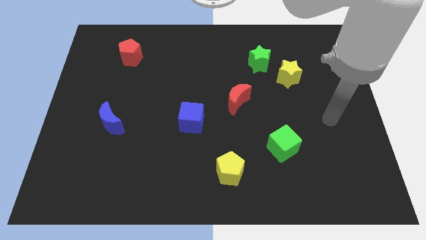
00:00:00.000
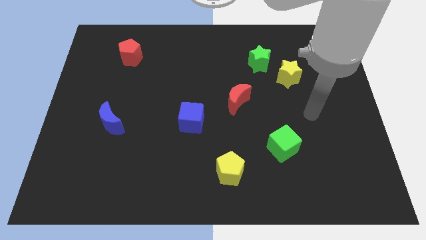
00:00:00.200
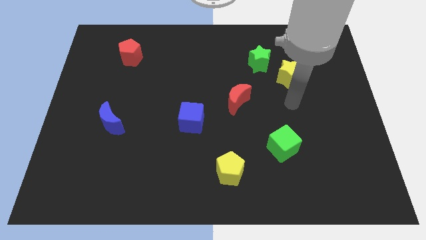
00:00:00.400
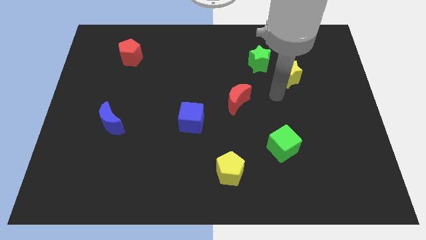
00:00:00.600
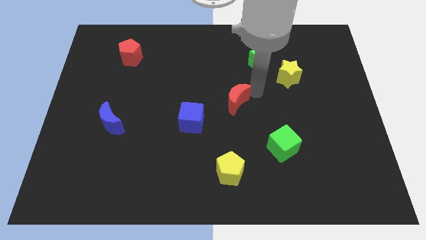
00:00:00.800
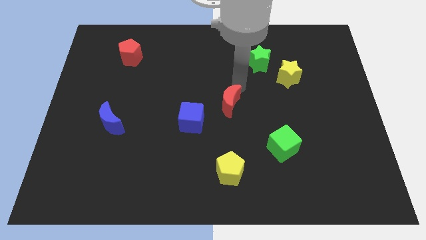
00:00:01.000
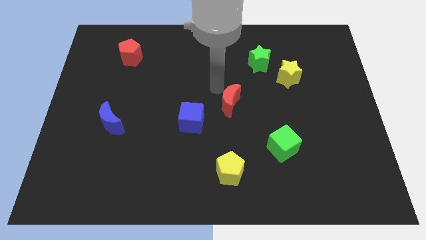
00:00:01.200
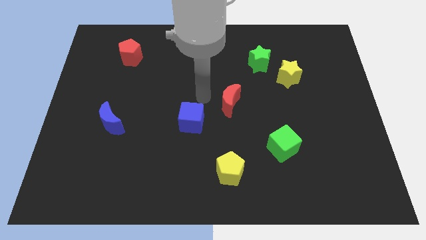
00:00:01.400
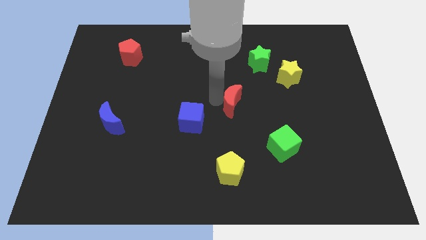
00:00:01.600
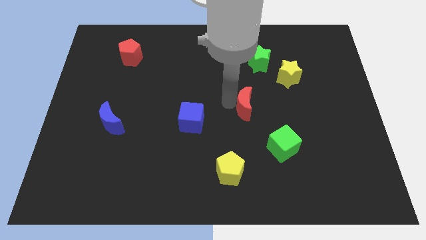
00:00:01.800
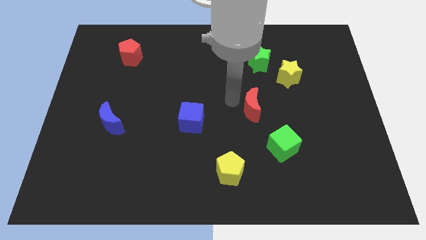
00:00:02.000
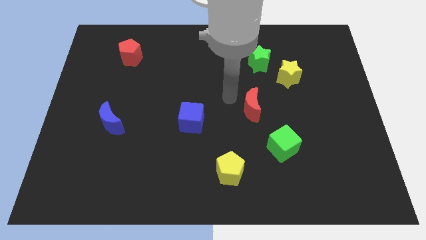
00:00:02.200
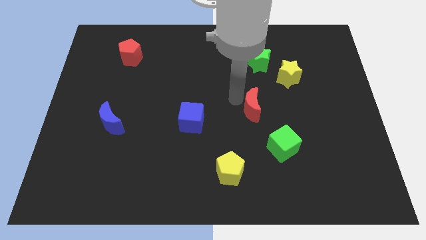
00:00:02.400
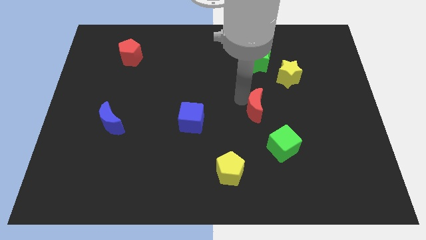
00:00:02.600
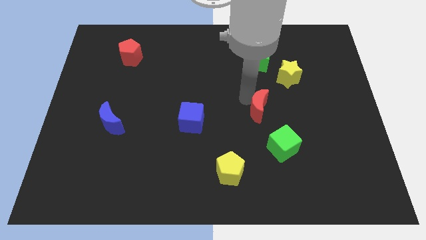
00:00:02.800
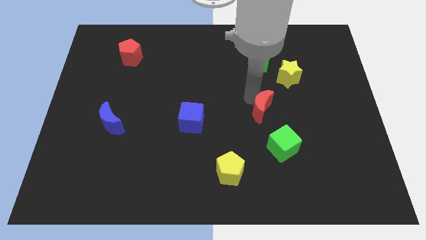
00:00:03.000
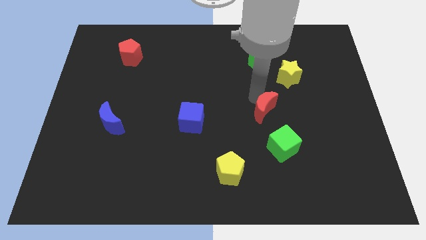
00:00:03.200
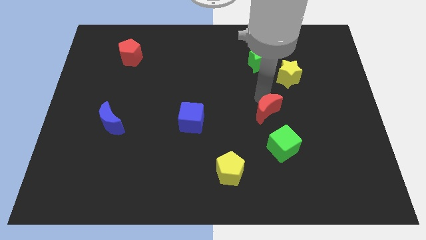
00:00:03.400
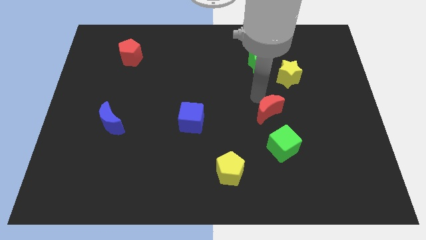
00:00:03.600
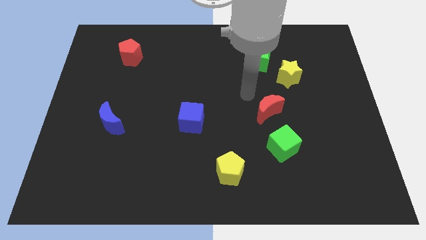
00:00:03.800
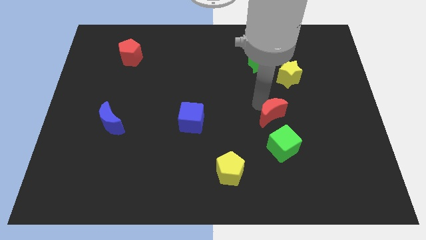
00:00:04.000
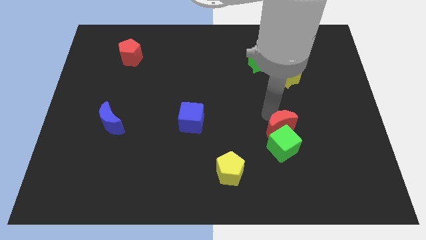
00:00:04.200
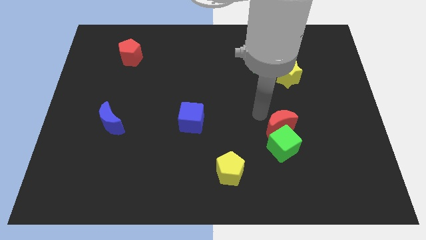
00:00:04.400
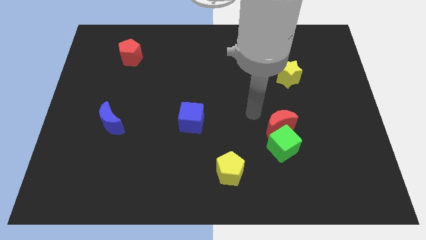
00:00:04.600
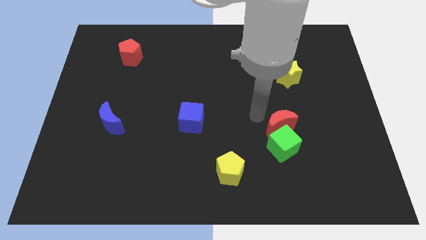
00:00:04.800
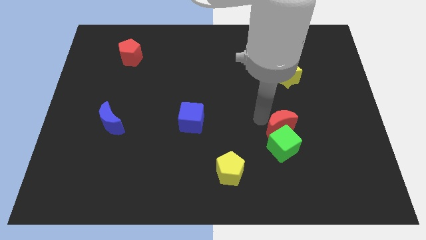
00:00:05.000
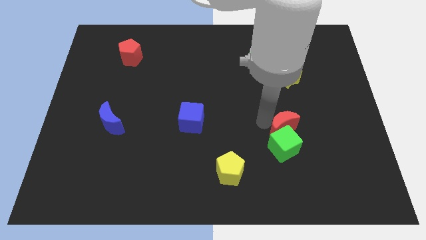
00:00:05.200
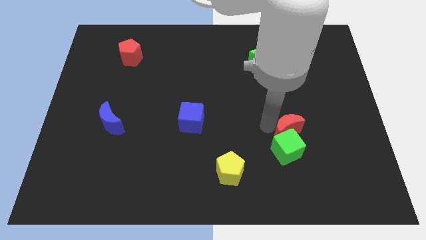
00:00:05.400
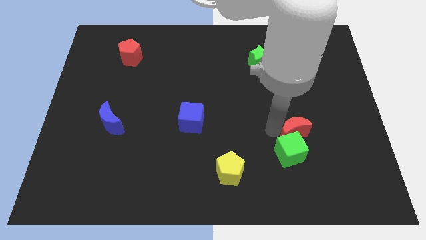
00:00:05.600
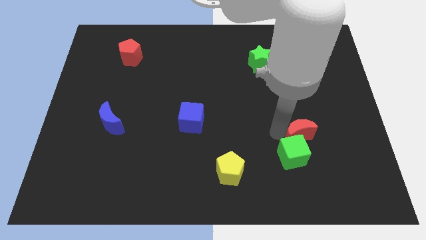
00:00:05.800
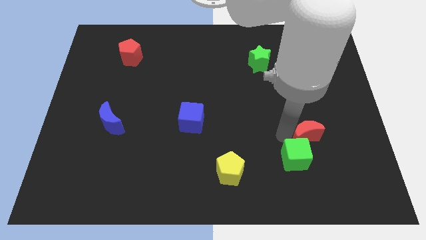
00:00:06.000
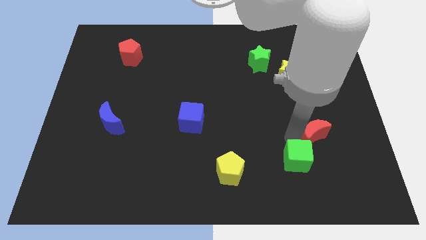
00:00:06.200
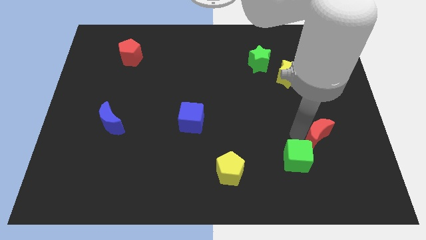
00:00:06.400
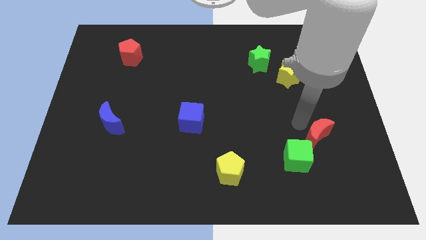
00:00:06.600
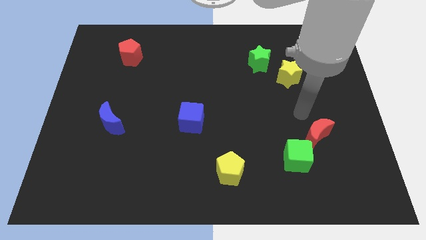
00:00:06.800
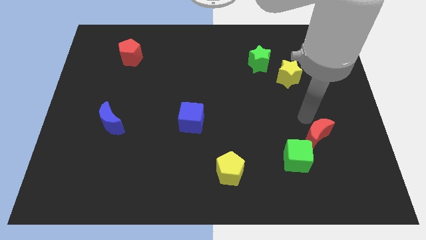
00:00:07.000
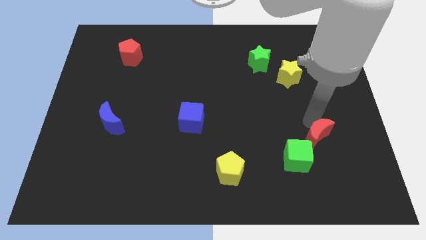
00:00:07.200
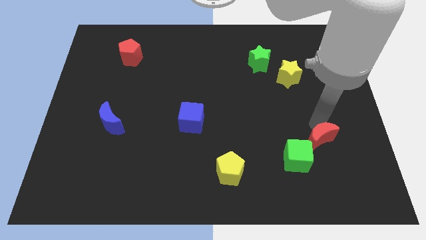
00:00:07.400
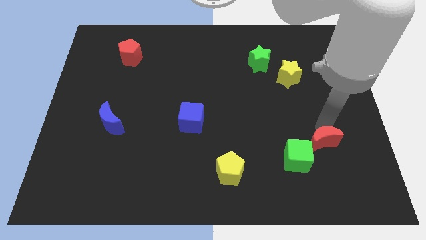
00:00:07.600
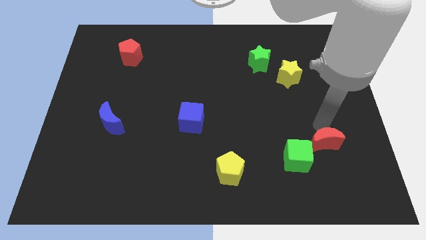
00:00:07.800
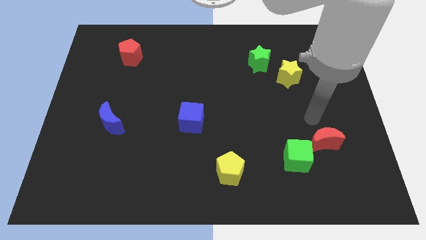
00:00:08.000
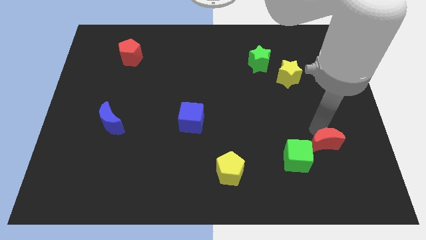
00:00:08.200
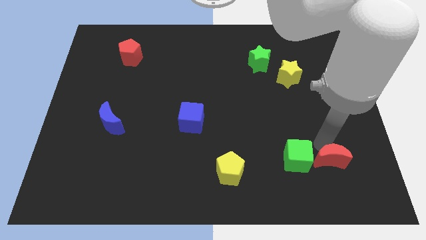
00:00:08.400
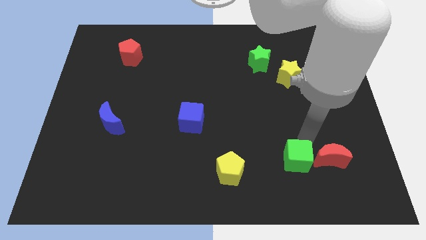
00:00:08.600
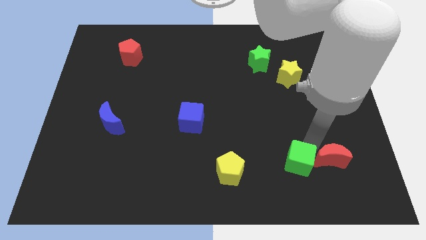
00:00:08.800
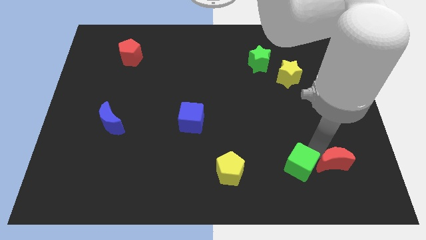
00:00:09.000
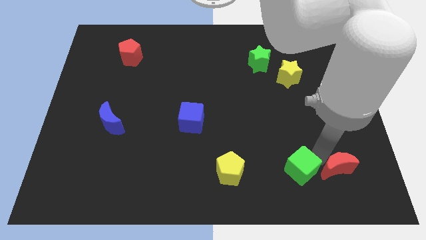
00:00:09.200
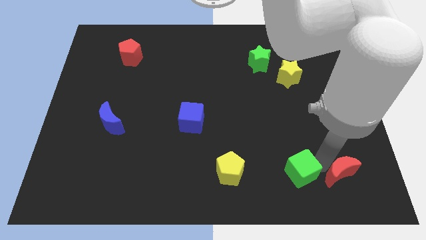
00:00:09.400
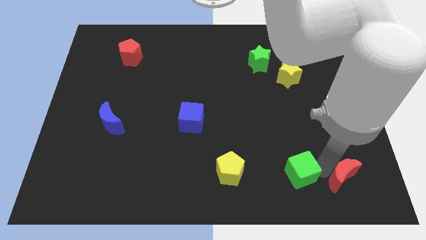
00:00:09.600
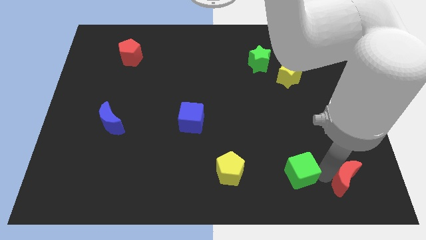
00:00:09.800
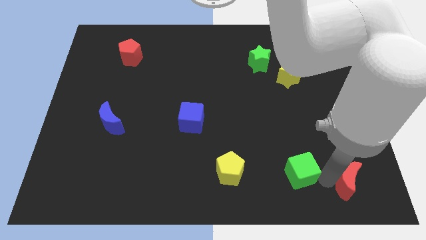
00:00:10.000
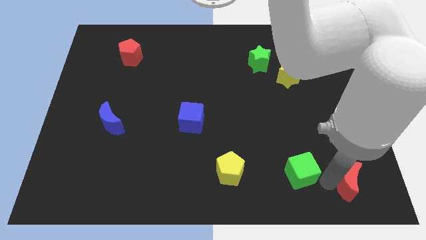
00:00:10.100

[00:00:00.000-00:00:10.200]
slide the red moon to the bottom right corner

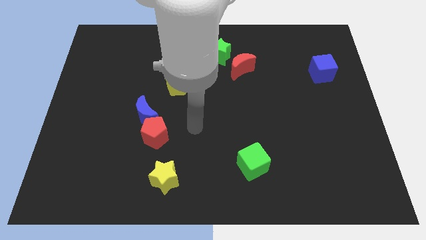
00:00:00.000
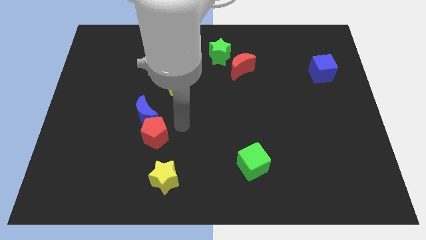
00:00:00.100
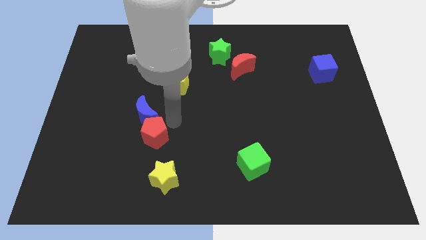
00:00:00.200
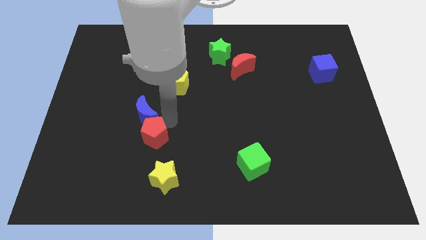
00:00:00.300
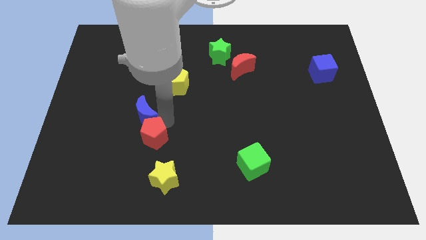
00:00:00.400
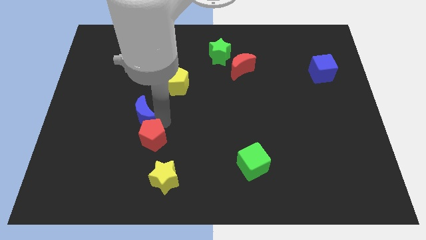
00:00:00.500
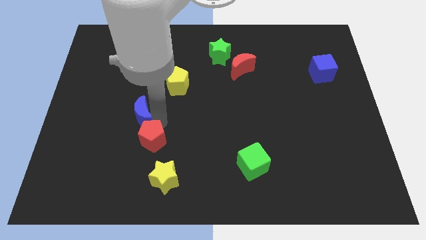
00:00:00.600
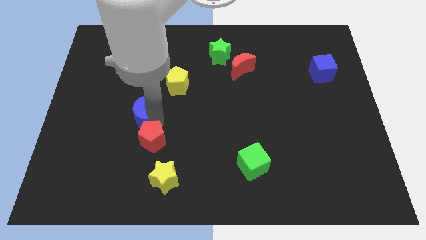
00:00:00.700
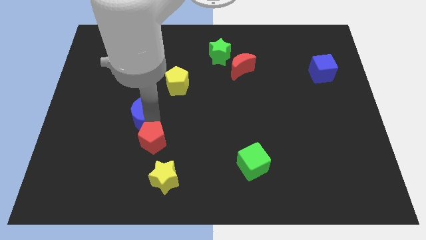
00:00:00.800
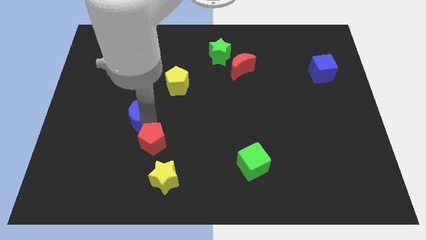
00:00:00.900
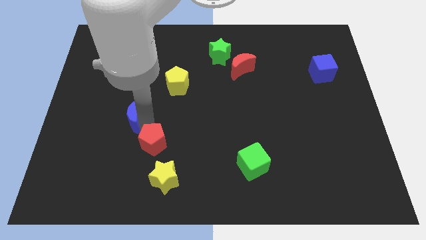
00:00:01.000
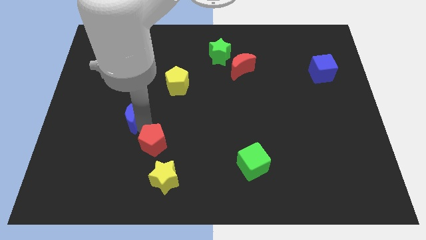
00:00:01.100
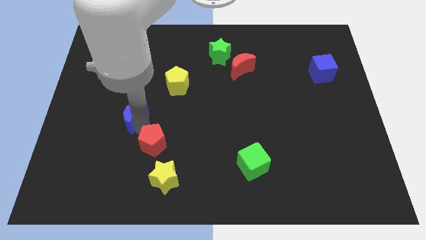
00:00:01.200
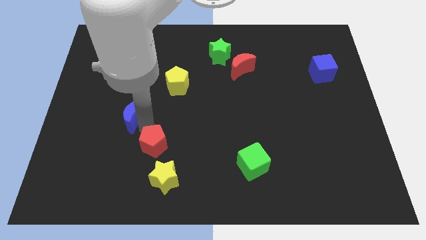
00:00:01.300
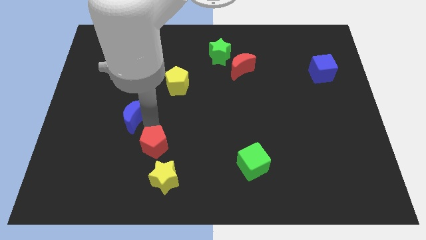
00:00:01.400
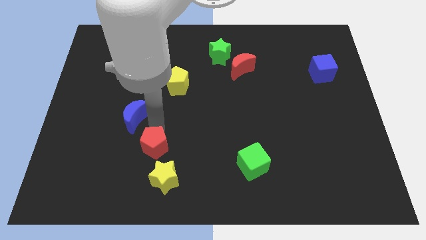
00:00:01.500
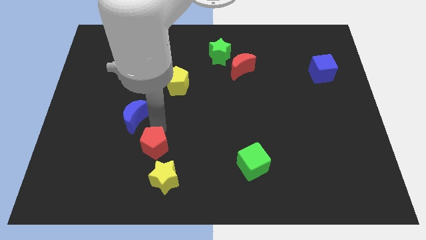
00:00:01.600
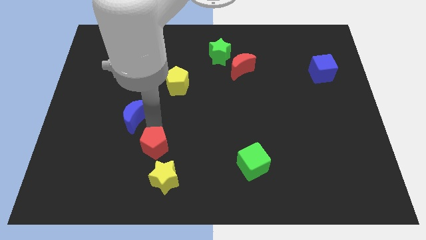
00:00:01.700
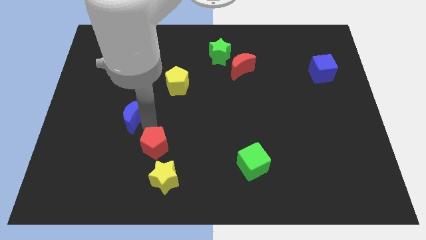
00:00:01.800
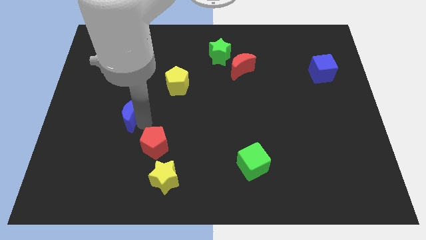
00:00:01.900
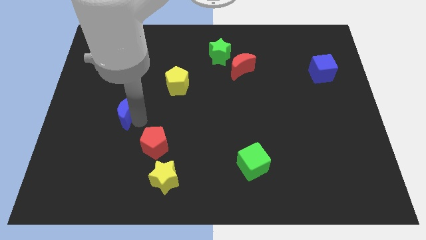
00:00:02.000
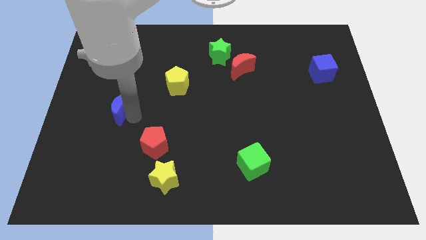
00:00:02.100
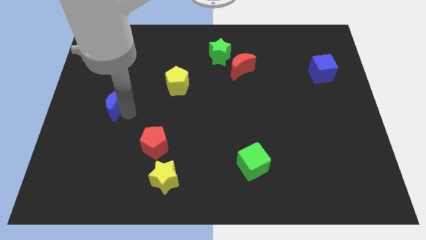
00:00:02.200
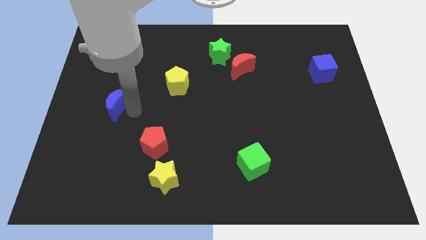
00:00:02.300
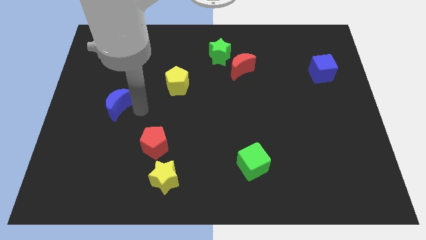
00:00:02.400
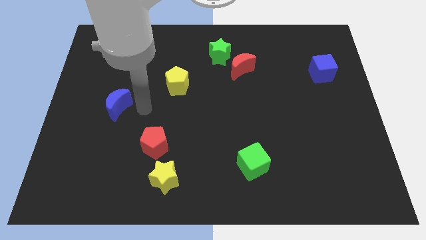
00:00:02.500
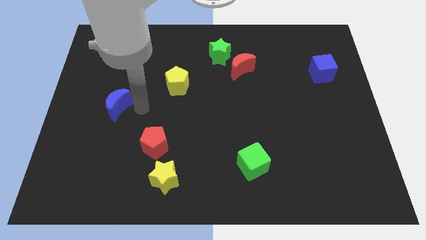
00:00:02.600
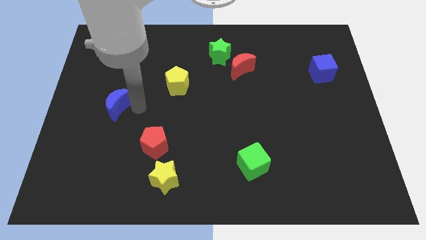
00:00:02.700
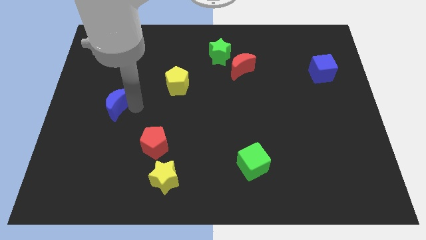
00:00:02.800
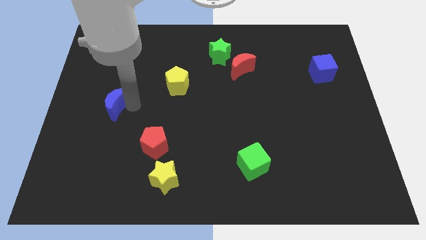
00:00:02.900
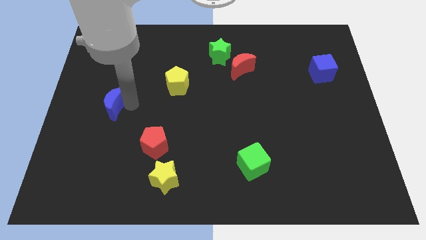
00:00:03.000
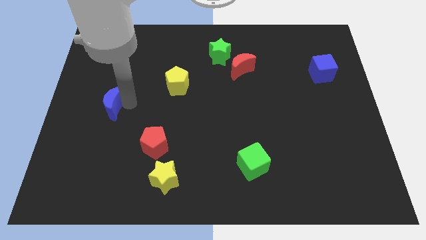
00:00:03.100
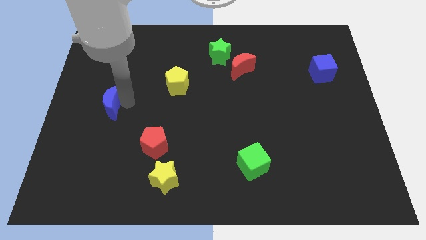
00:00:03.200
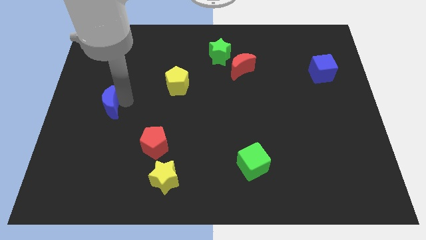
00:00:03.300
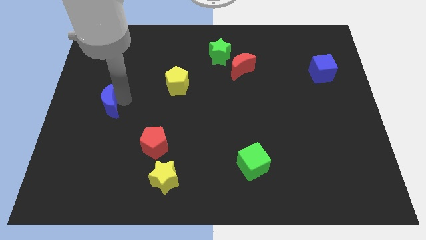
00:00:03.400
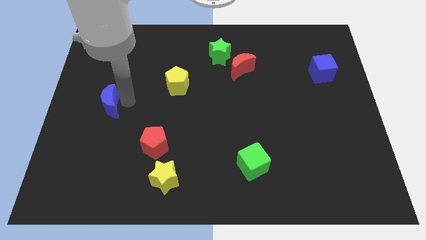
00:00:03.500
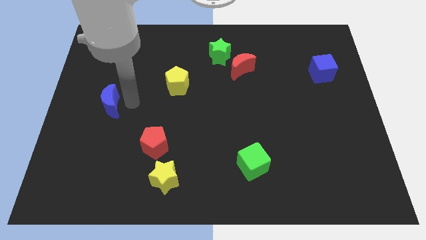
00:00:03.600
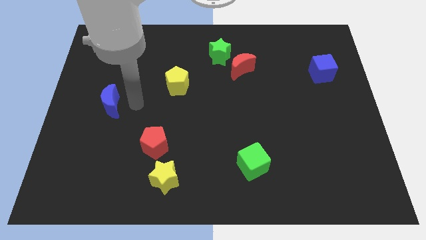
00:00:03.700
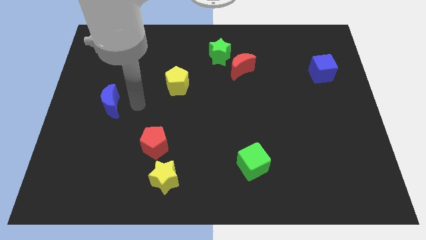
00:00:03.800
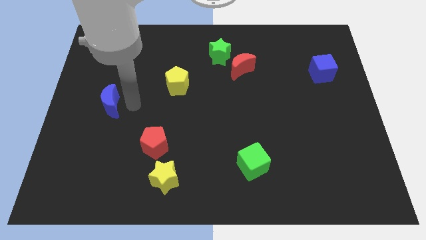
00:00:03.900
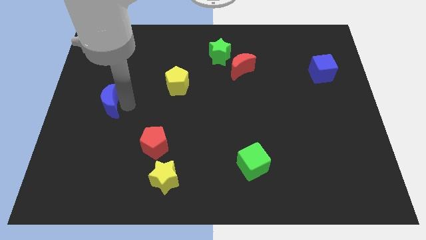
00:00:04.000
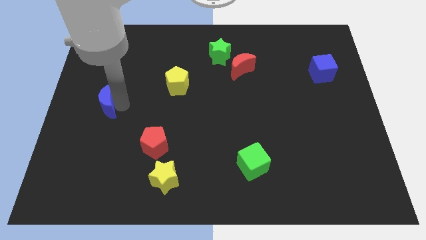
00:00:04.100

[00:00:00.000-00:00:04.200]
put the blue moon to the center left
